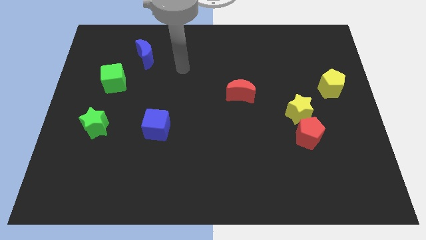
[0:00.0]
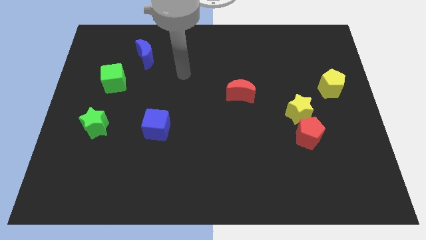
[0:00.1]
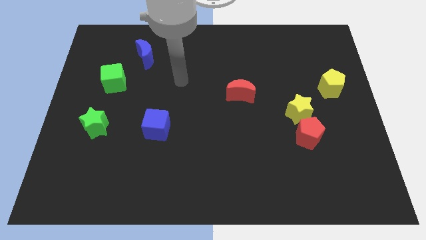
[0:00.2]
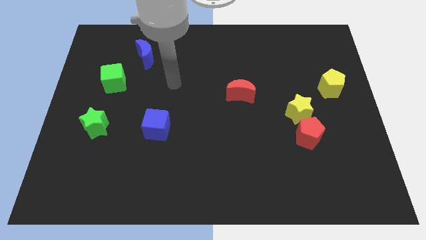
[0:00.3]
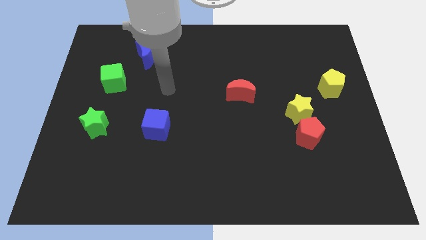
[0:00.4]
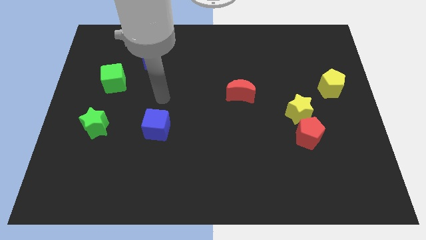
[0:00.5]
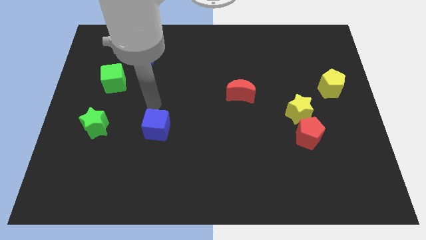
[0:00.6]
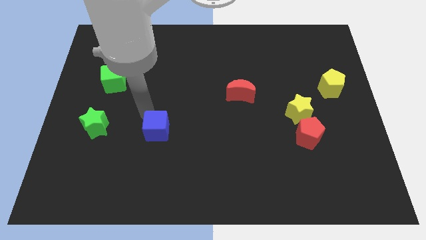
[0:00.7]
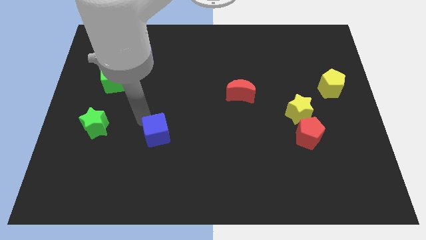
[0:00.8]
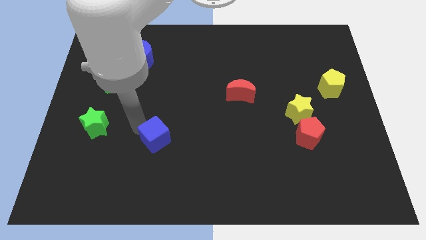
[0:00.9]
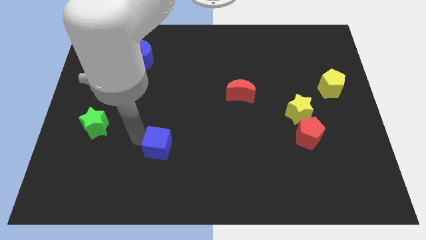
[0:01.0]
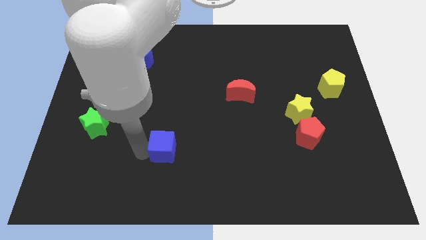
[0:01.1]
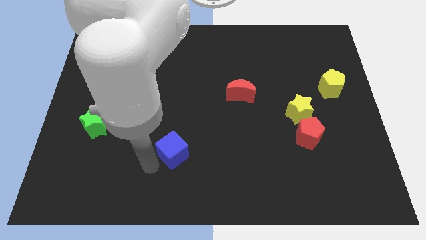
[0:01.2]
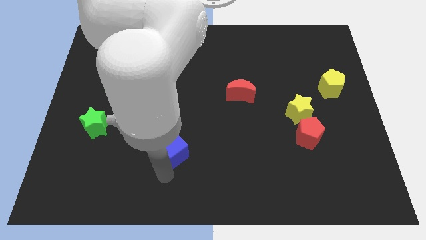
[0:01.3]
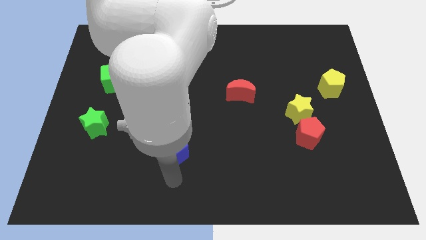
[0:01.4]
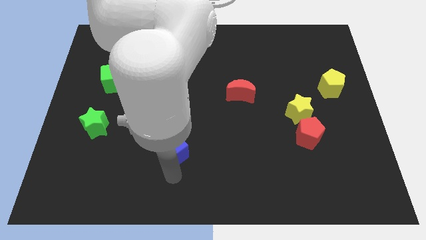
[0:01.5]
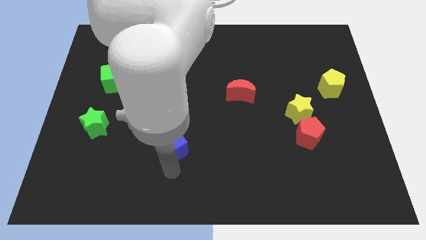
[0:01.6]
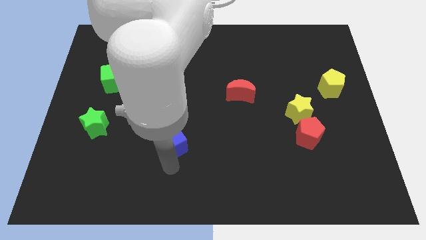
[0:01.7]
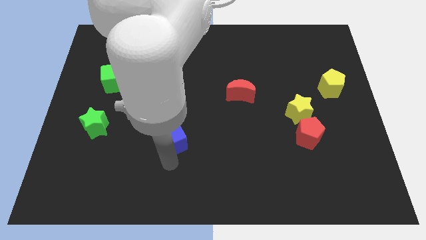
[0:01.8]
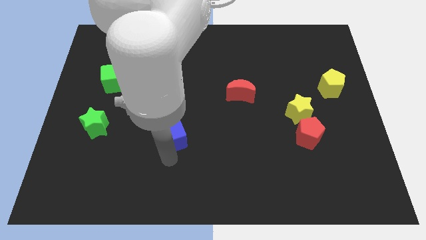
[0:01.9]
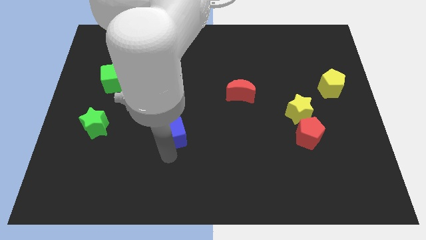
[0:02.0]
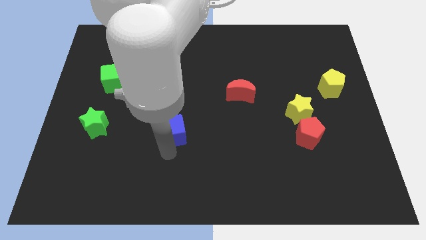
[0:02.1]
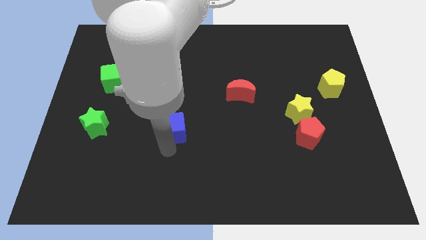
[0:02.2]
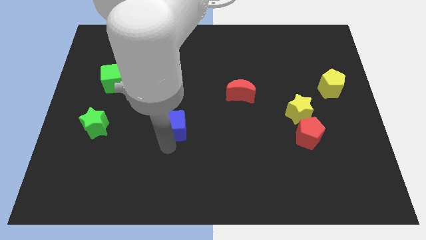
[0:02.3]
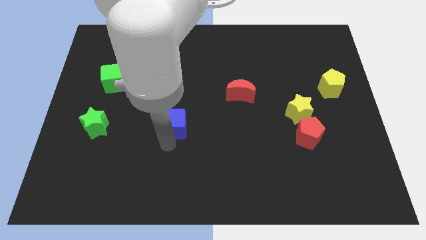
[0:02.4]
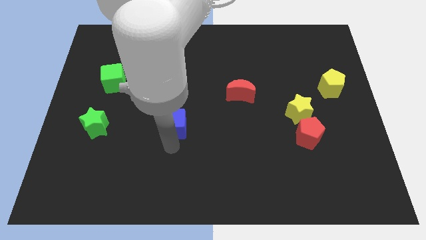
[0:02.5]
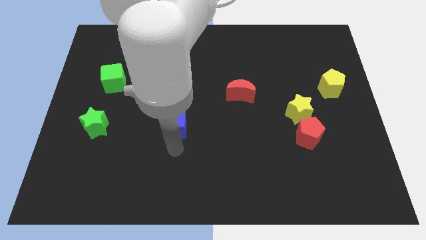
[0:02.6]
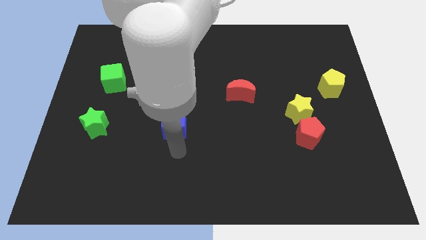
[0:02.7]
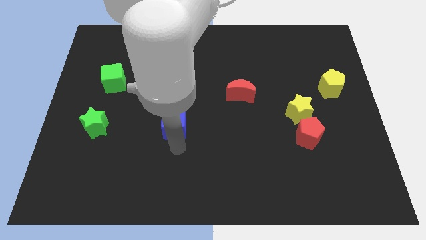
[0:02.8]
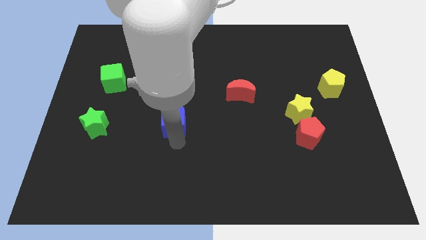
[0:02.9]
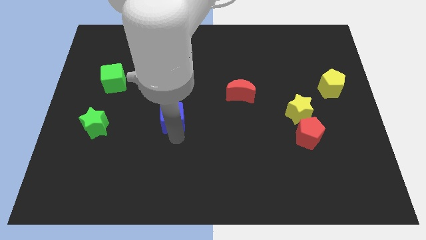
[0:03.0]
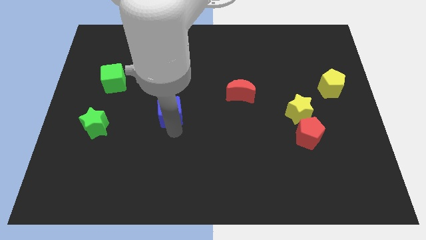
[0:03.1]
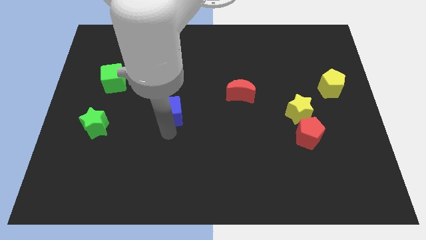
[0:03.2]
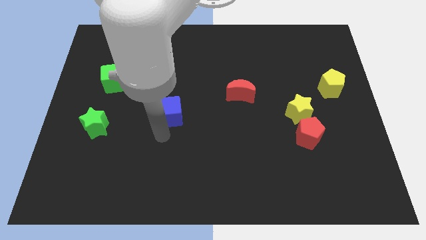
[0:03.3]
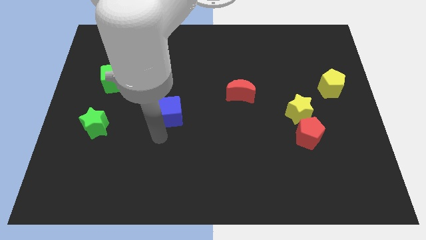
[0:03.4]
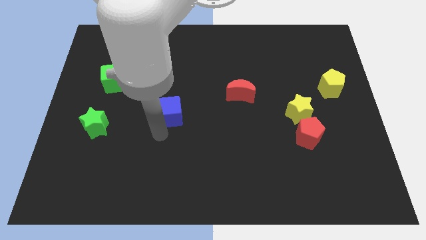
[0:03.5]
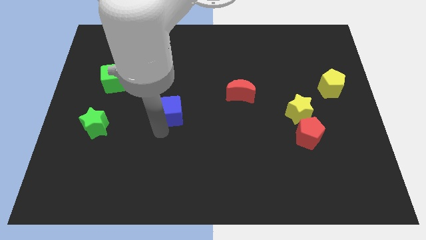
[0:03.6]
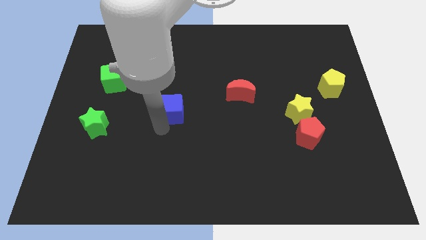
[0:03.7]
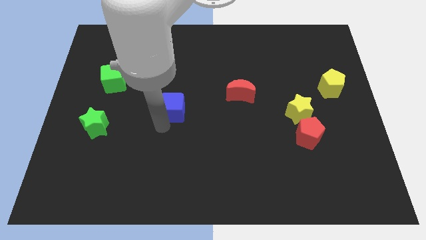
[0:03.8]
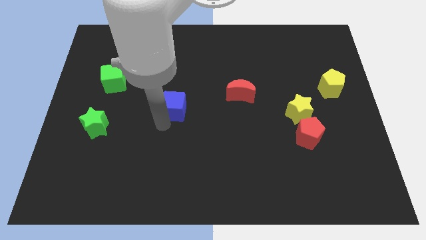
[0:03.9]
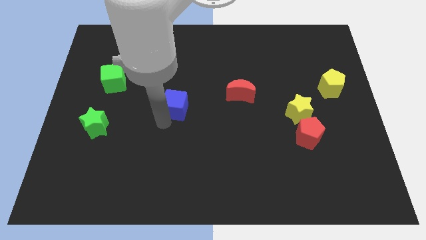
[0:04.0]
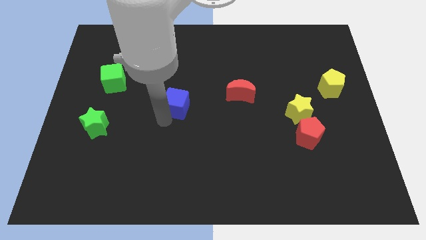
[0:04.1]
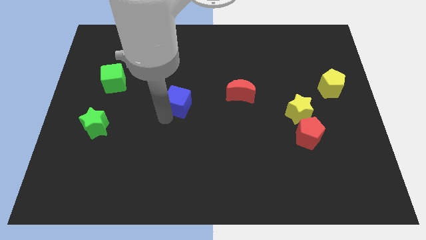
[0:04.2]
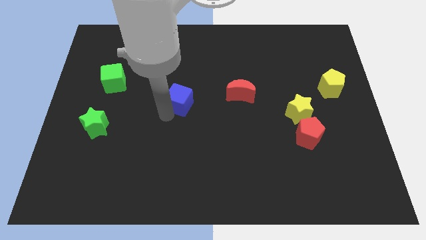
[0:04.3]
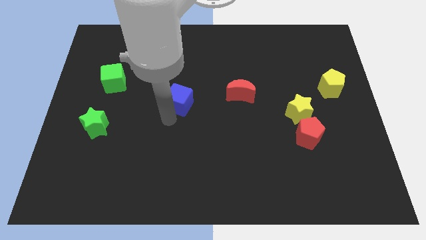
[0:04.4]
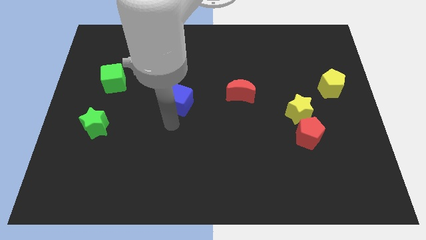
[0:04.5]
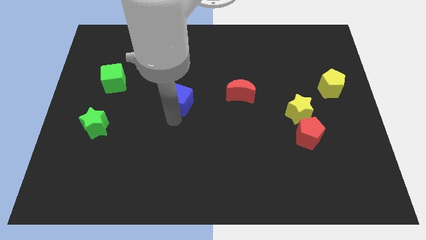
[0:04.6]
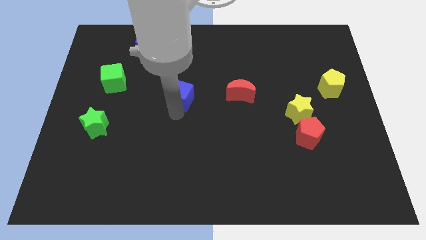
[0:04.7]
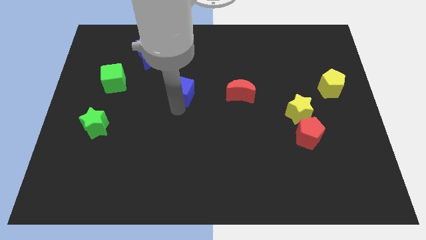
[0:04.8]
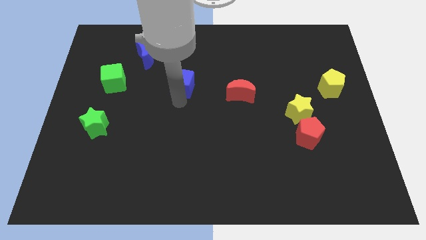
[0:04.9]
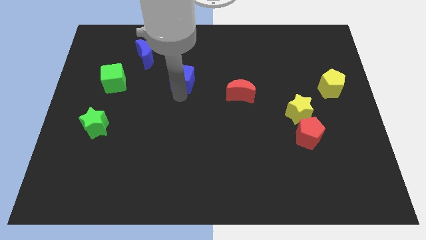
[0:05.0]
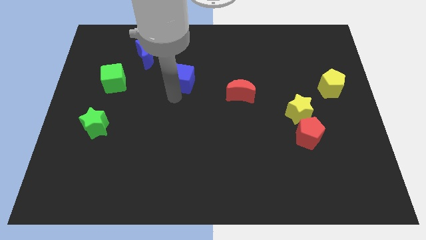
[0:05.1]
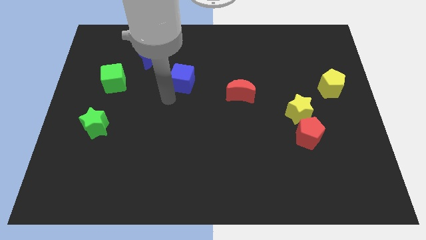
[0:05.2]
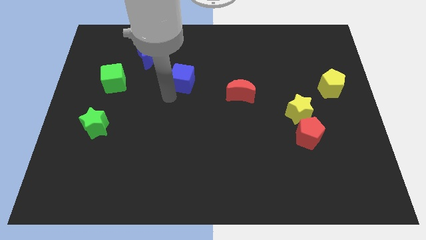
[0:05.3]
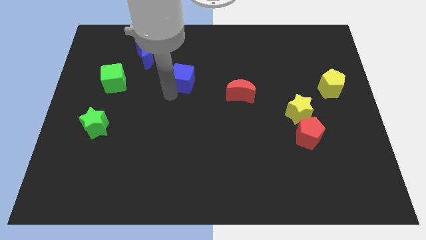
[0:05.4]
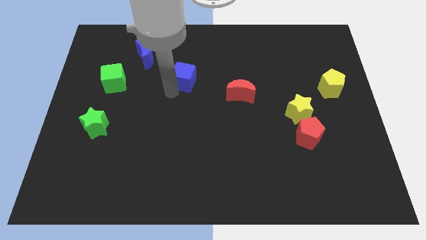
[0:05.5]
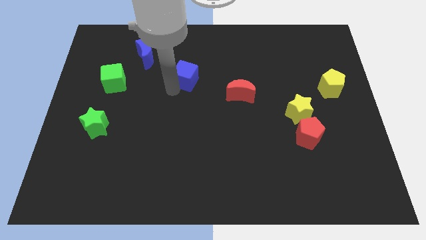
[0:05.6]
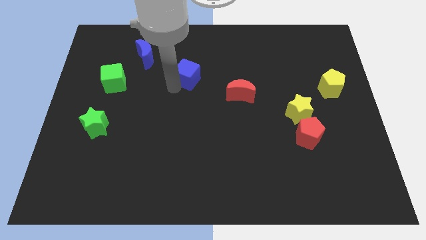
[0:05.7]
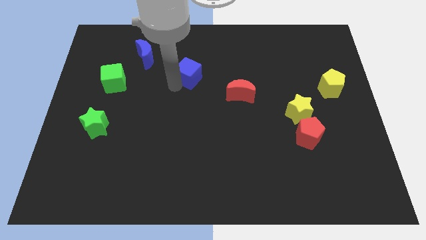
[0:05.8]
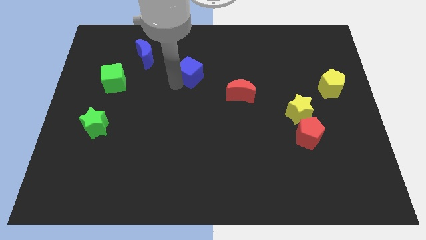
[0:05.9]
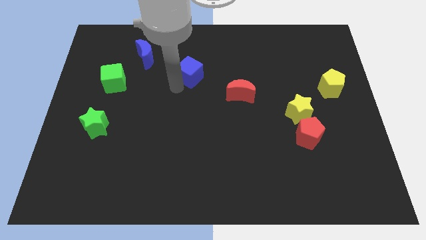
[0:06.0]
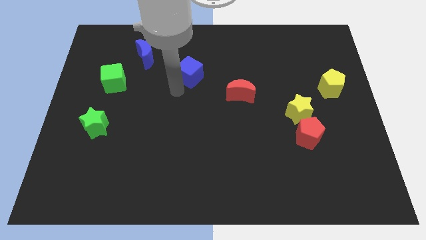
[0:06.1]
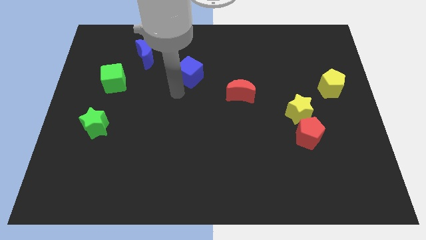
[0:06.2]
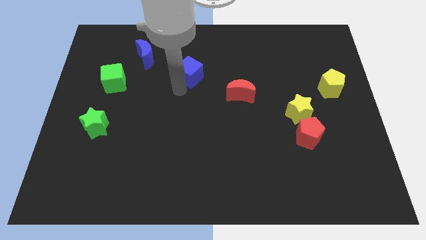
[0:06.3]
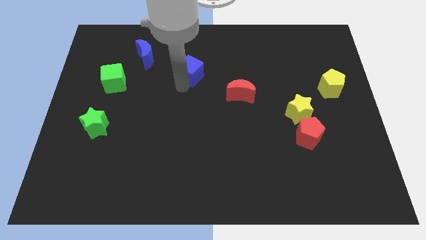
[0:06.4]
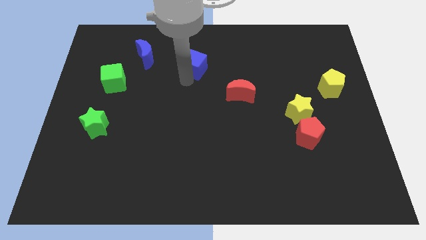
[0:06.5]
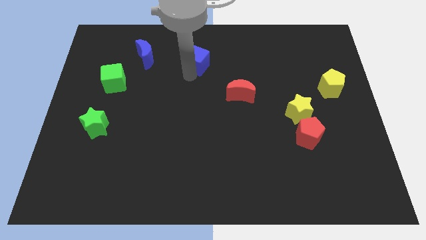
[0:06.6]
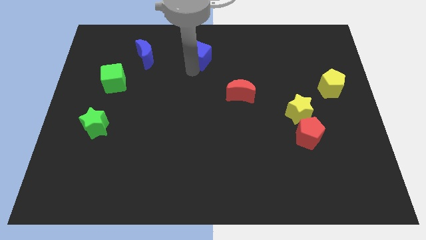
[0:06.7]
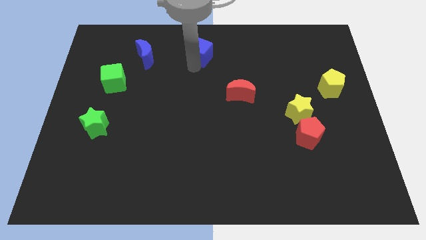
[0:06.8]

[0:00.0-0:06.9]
put the blue cube to the top side
